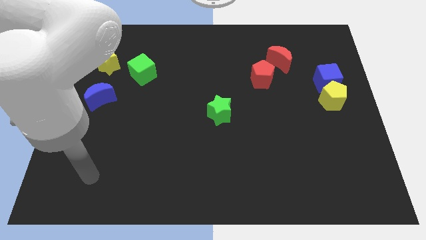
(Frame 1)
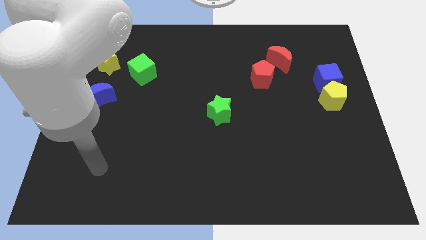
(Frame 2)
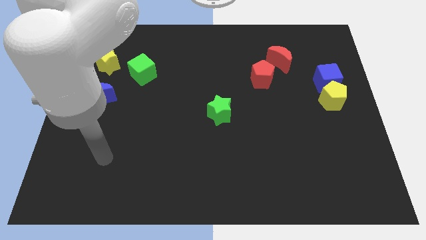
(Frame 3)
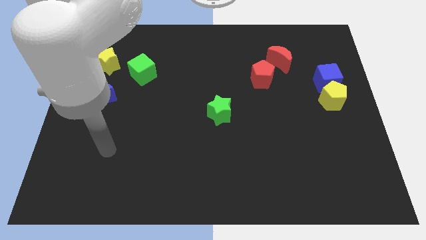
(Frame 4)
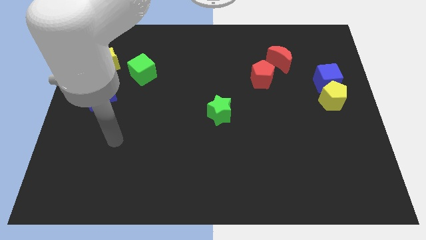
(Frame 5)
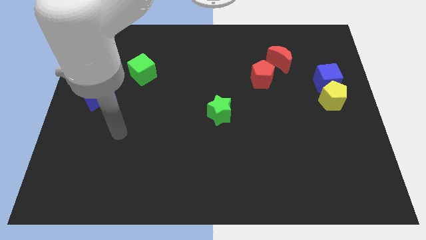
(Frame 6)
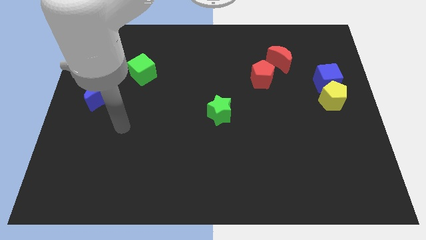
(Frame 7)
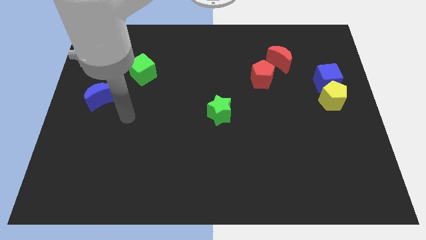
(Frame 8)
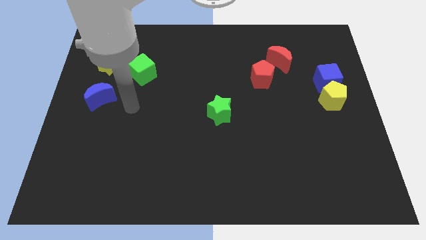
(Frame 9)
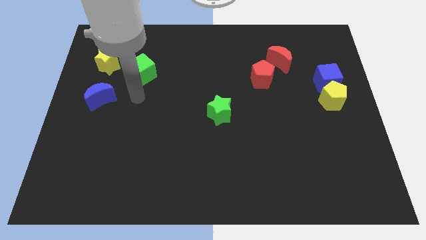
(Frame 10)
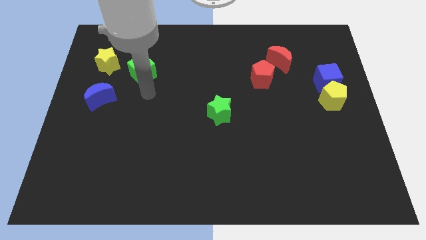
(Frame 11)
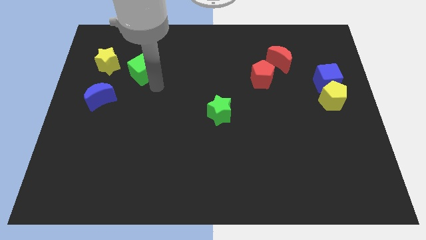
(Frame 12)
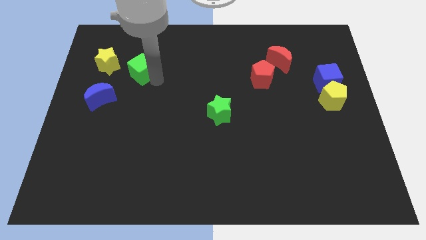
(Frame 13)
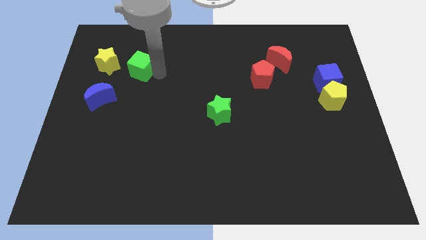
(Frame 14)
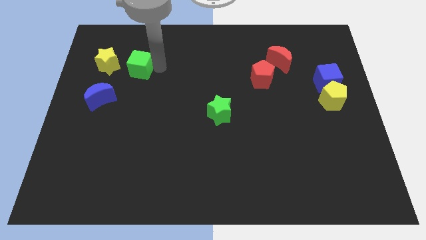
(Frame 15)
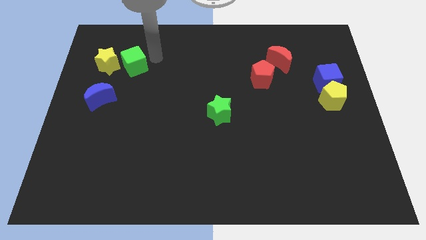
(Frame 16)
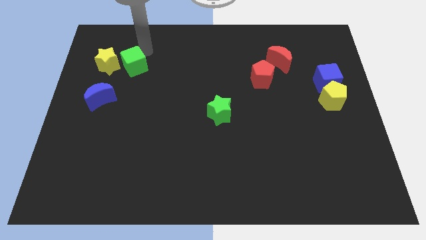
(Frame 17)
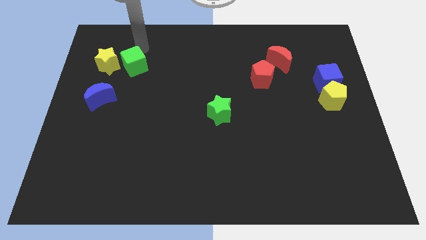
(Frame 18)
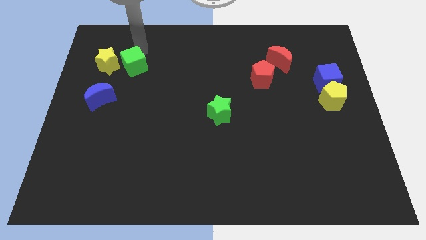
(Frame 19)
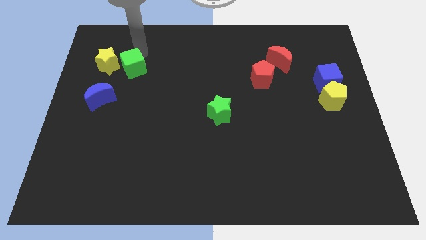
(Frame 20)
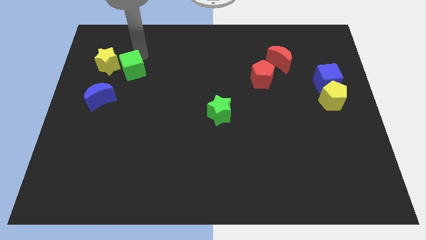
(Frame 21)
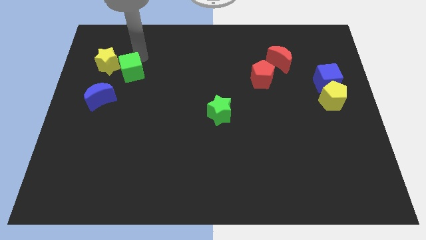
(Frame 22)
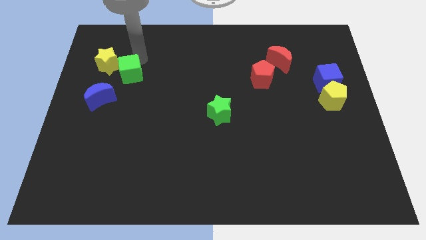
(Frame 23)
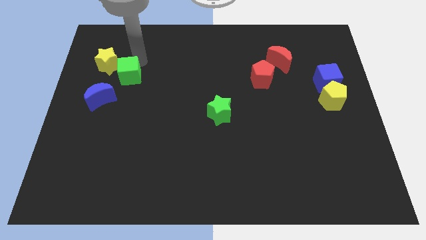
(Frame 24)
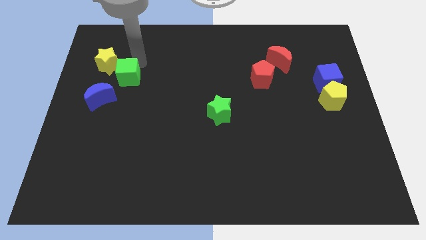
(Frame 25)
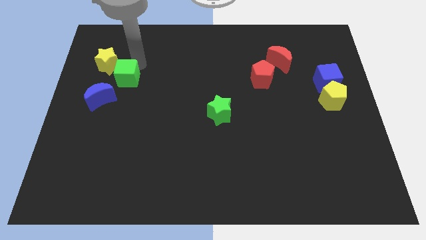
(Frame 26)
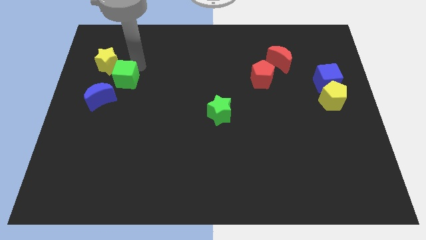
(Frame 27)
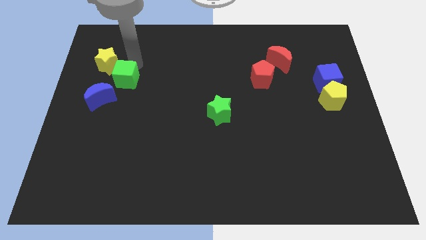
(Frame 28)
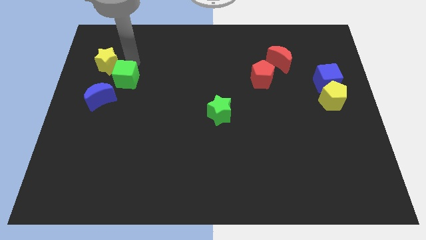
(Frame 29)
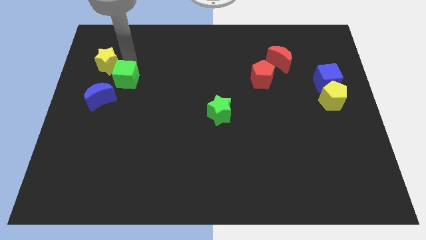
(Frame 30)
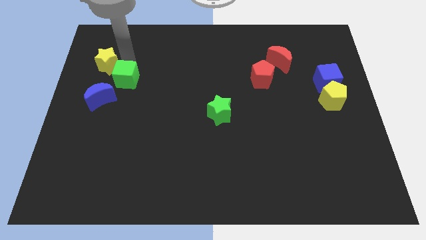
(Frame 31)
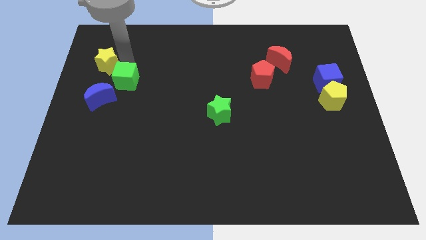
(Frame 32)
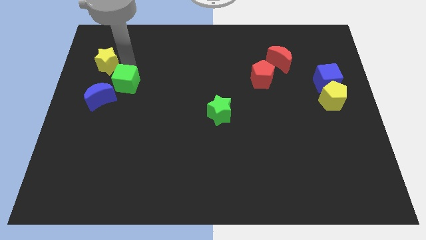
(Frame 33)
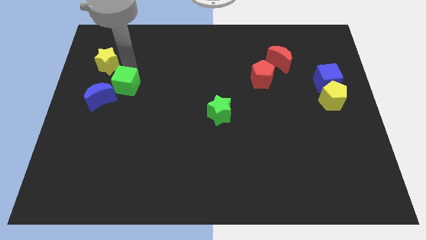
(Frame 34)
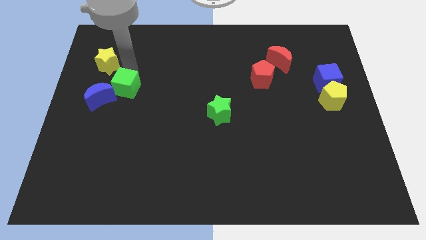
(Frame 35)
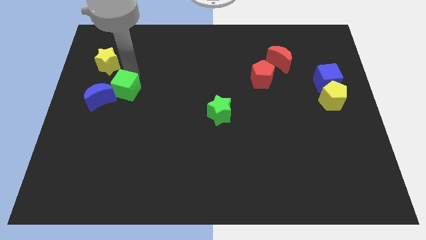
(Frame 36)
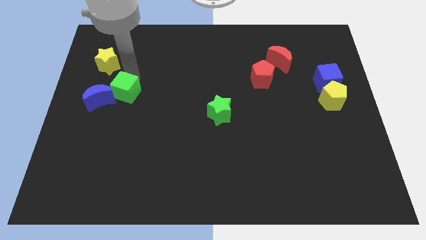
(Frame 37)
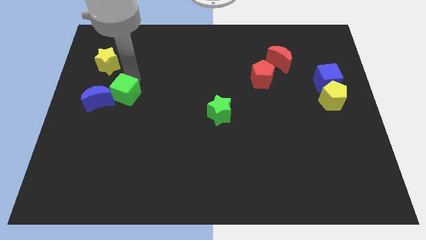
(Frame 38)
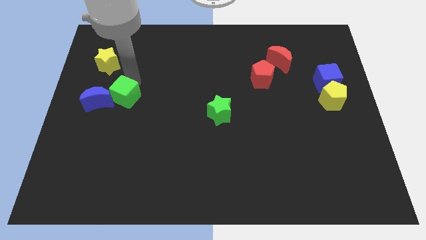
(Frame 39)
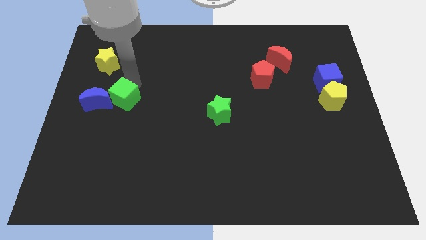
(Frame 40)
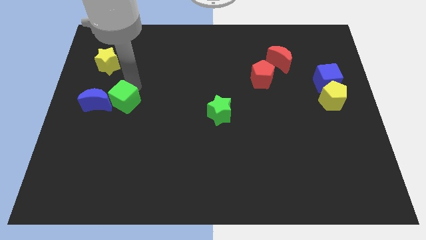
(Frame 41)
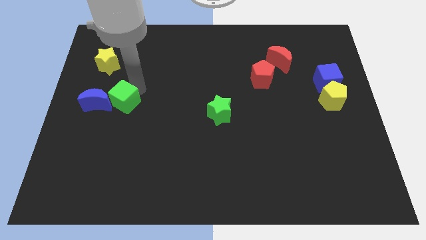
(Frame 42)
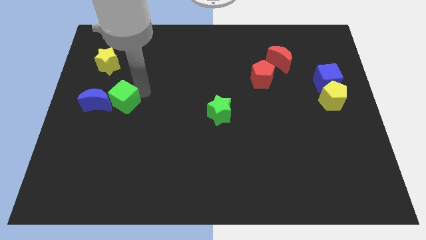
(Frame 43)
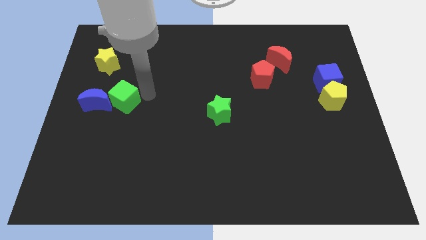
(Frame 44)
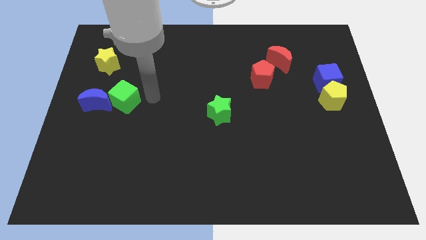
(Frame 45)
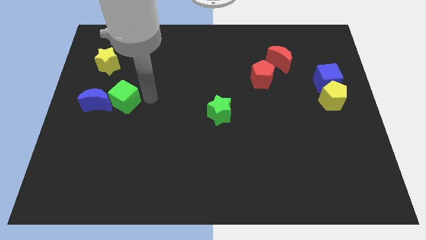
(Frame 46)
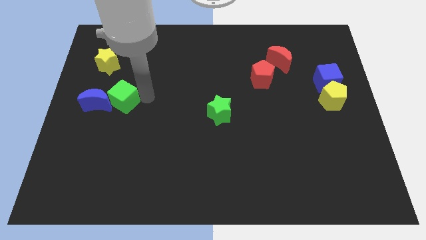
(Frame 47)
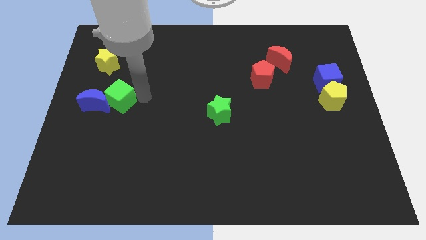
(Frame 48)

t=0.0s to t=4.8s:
move the green cube close to the blue moon

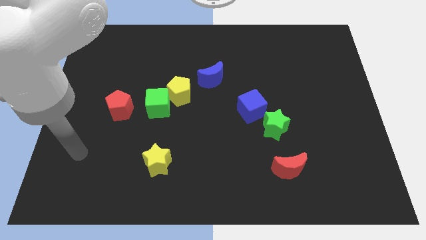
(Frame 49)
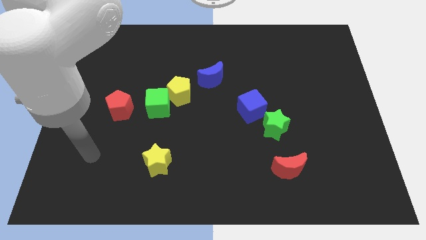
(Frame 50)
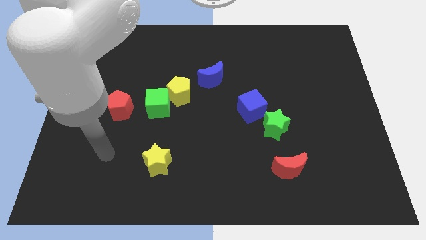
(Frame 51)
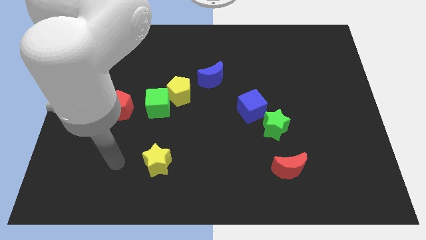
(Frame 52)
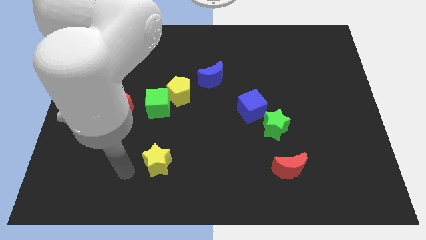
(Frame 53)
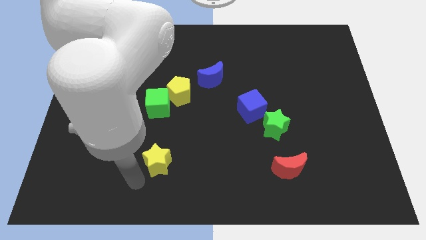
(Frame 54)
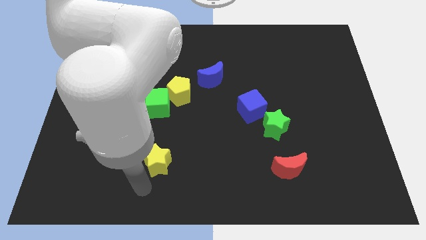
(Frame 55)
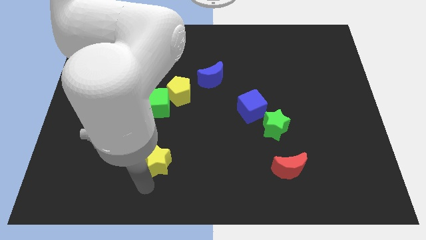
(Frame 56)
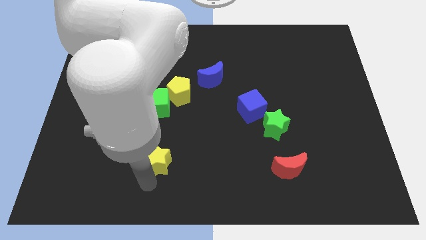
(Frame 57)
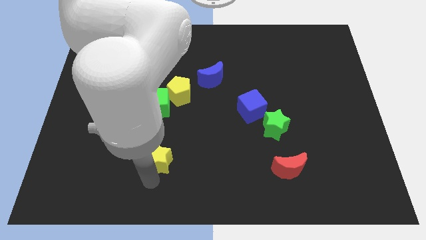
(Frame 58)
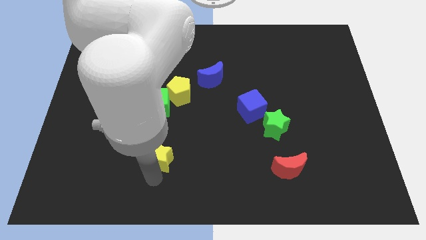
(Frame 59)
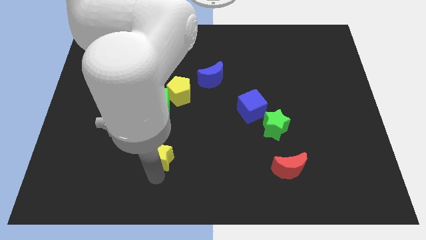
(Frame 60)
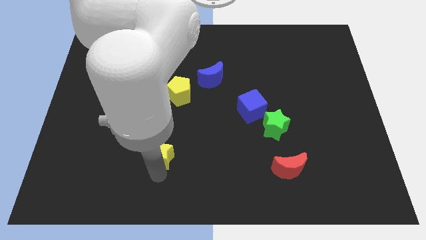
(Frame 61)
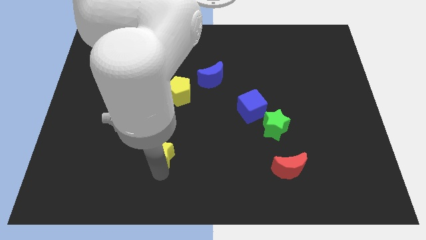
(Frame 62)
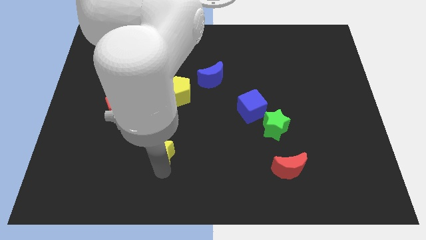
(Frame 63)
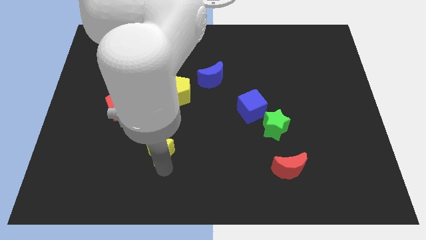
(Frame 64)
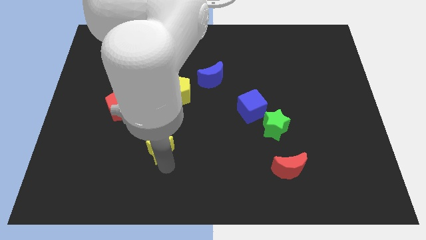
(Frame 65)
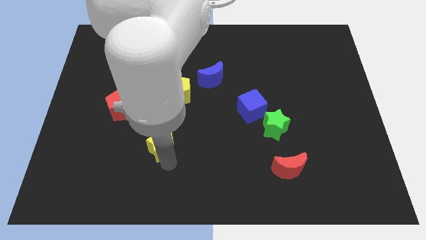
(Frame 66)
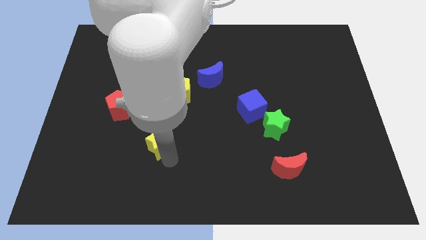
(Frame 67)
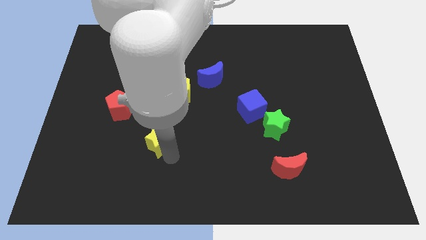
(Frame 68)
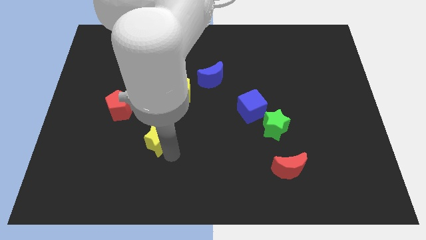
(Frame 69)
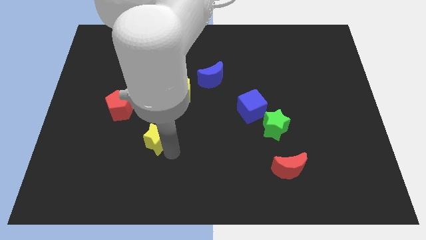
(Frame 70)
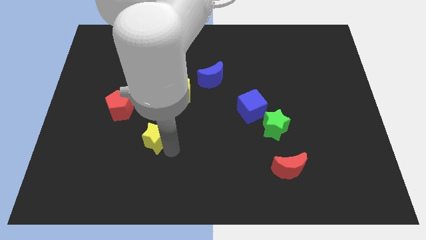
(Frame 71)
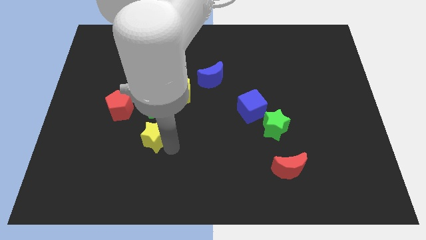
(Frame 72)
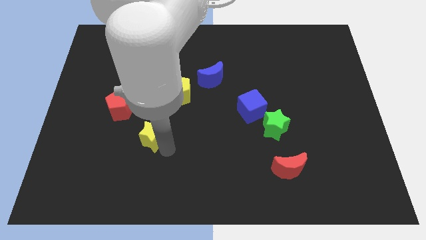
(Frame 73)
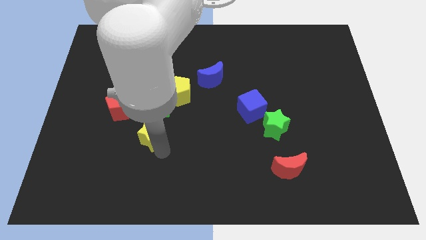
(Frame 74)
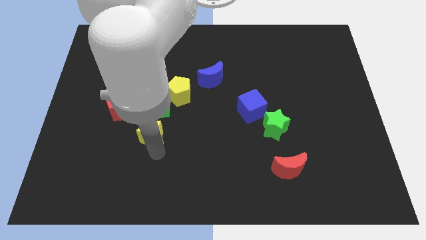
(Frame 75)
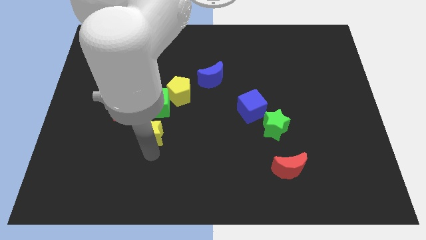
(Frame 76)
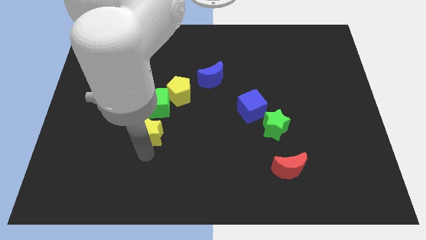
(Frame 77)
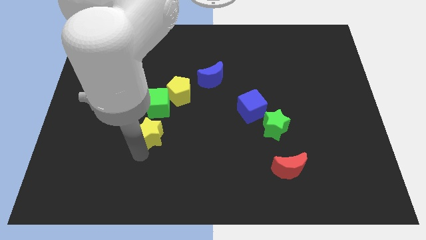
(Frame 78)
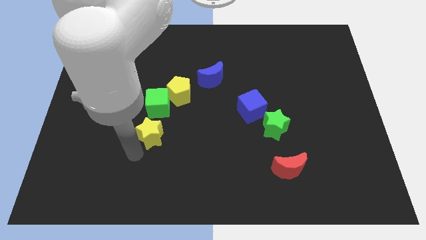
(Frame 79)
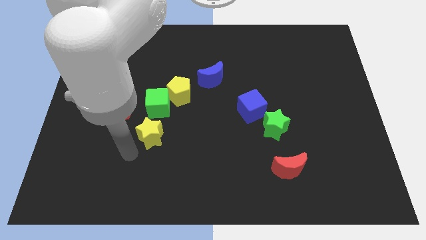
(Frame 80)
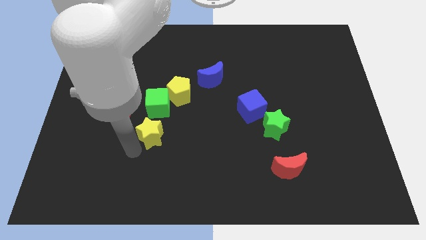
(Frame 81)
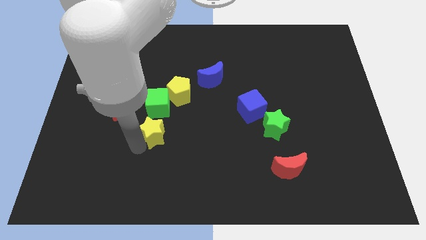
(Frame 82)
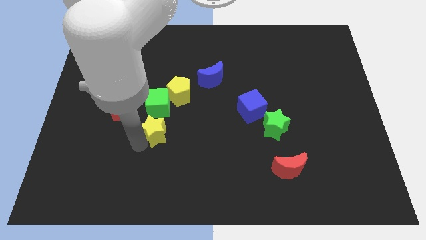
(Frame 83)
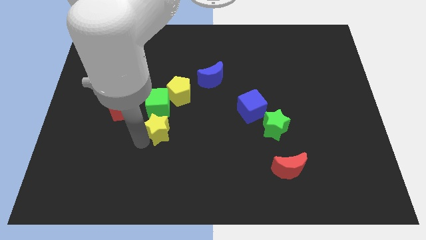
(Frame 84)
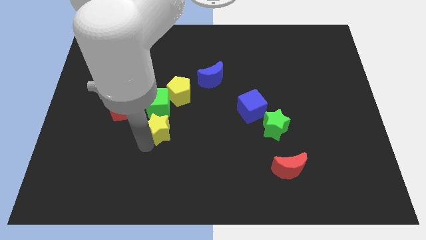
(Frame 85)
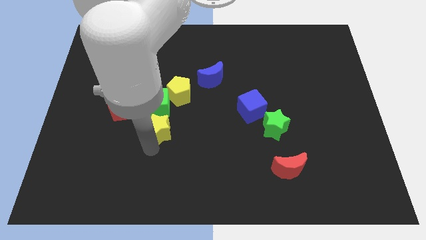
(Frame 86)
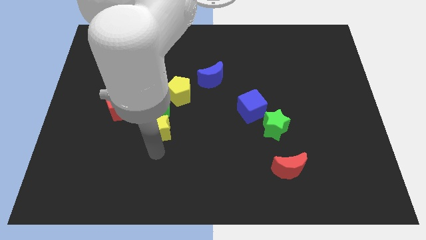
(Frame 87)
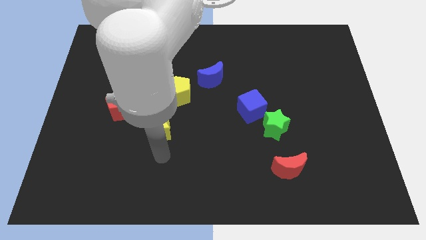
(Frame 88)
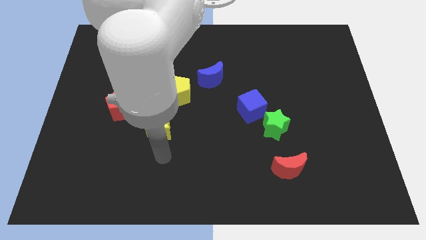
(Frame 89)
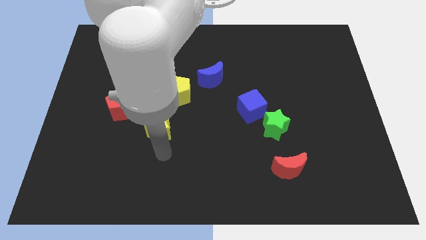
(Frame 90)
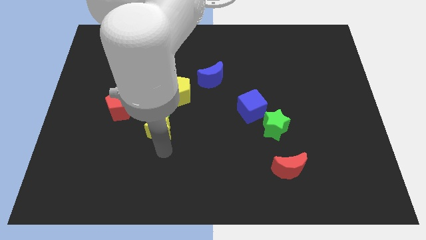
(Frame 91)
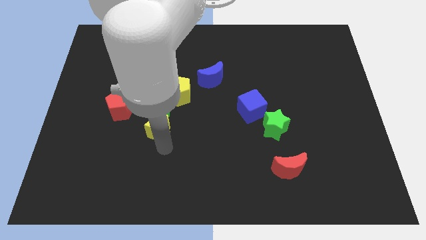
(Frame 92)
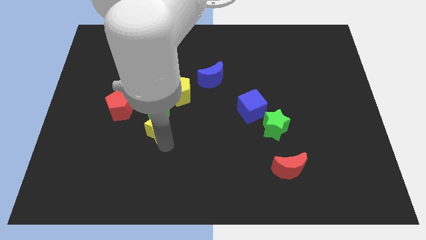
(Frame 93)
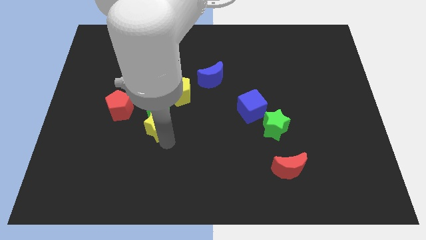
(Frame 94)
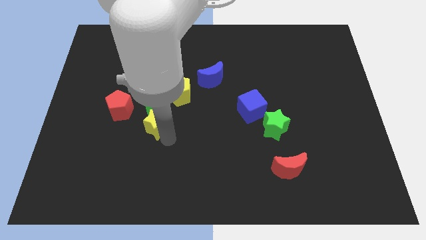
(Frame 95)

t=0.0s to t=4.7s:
push the yellow star close to the green cube
